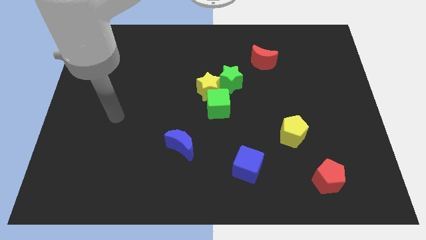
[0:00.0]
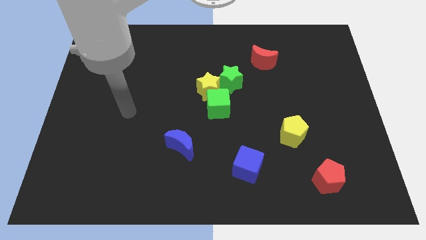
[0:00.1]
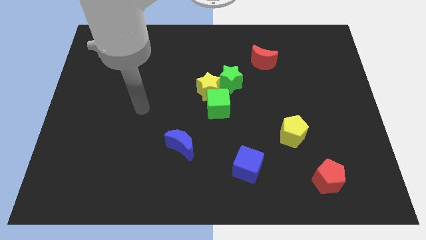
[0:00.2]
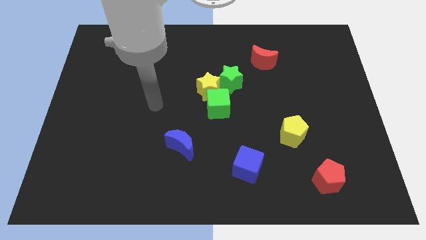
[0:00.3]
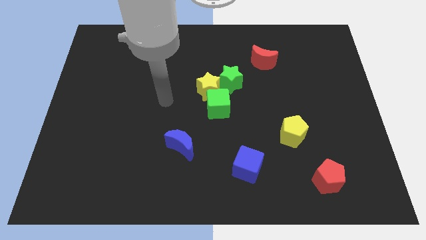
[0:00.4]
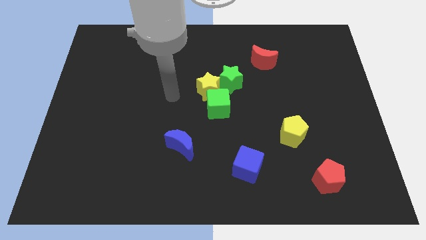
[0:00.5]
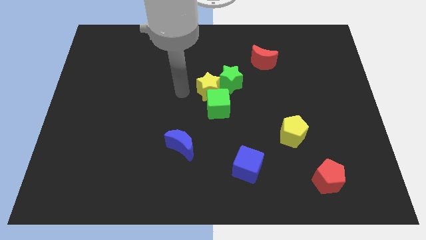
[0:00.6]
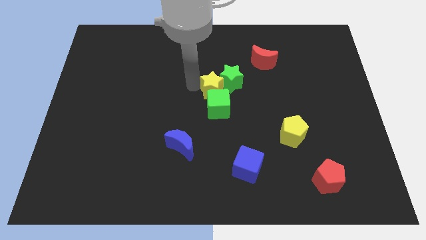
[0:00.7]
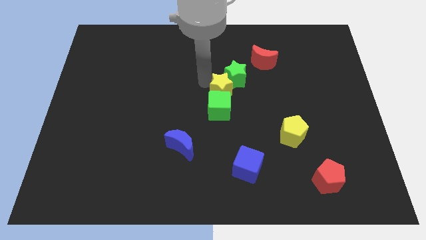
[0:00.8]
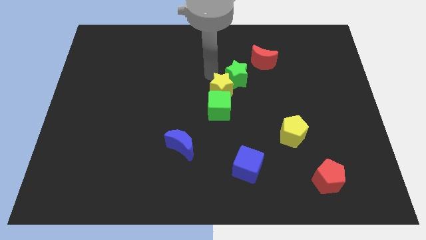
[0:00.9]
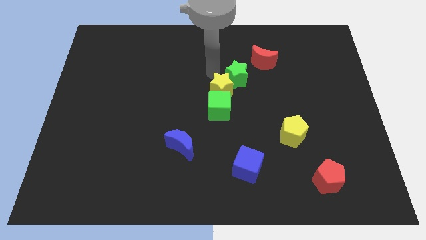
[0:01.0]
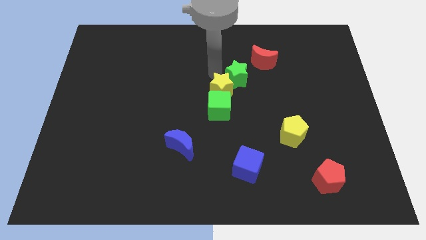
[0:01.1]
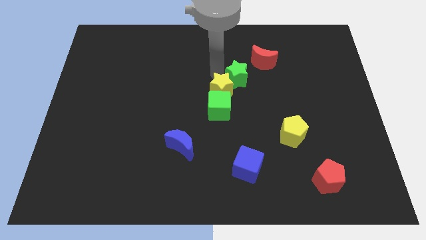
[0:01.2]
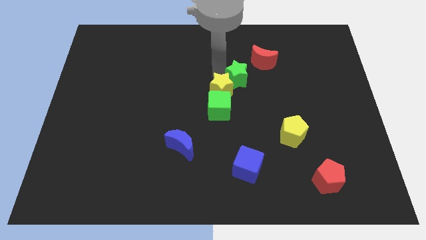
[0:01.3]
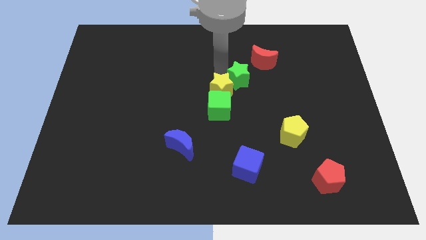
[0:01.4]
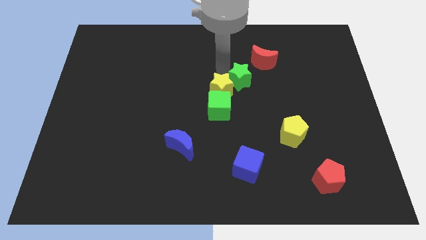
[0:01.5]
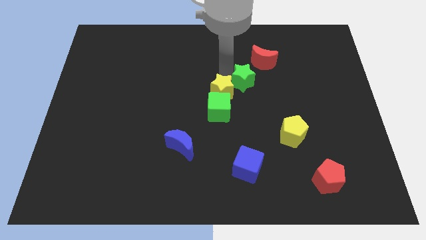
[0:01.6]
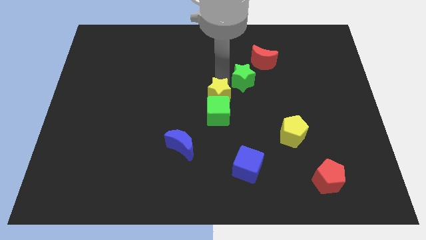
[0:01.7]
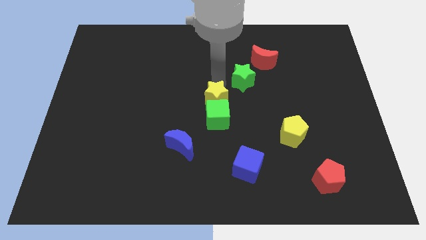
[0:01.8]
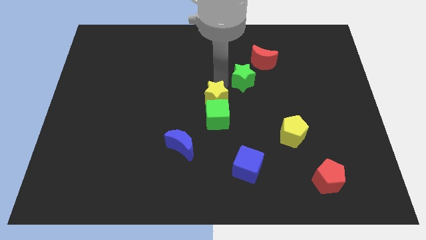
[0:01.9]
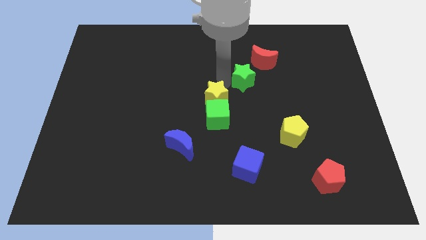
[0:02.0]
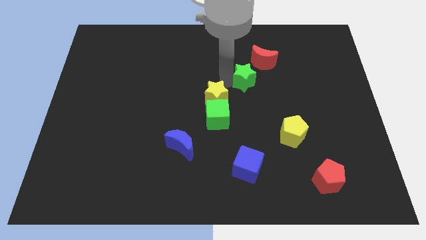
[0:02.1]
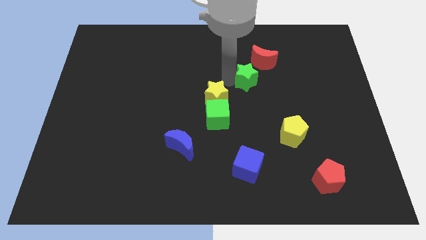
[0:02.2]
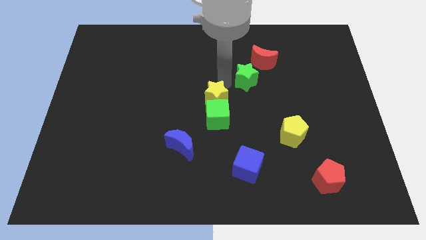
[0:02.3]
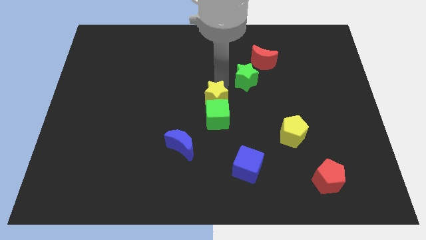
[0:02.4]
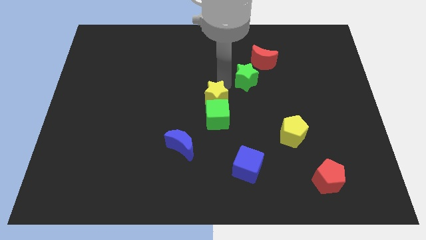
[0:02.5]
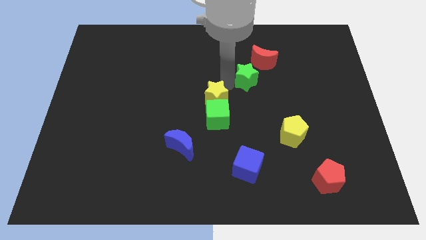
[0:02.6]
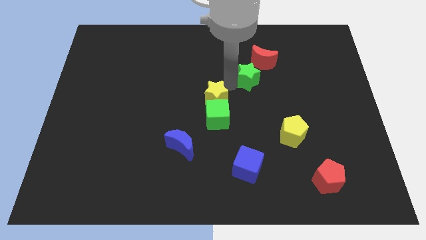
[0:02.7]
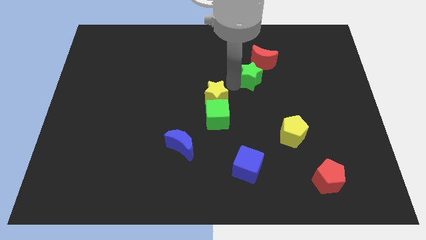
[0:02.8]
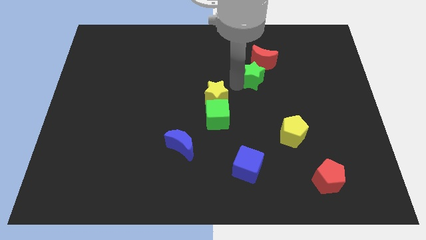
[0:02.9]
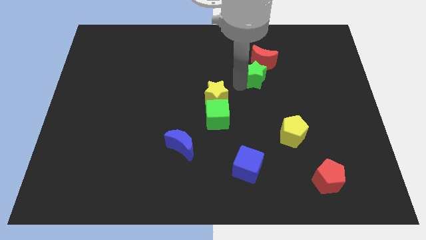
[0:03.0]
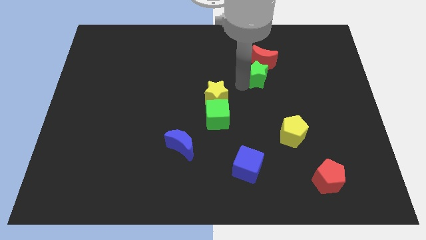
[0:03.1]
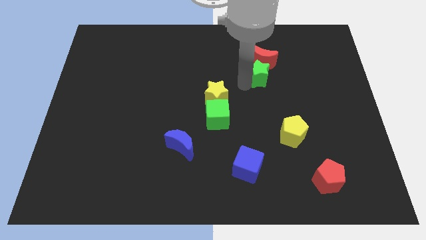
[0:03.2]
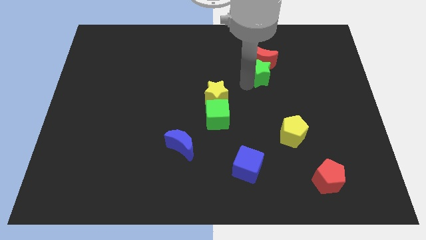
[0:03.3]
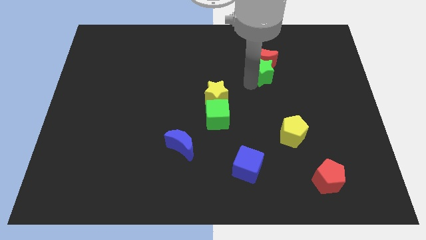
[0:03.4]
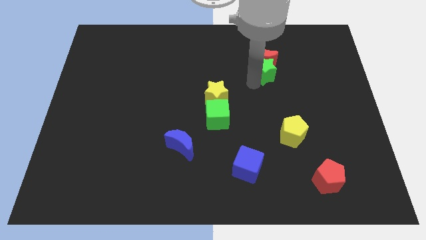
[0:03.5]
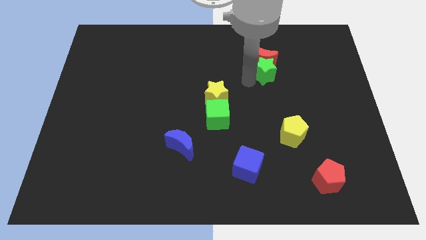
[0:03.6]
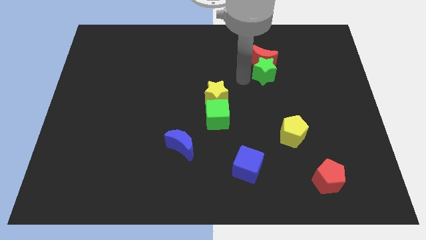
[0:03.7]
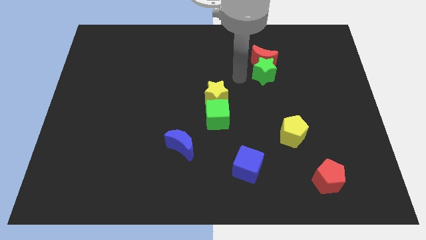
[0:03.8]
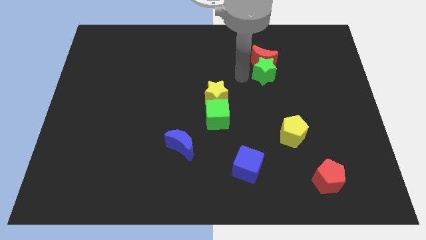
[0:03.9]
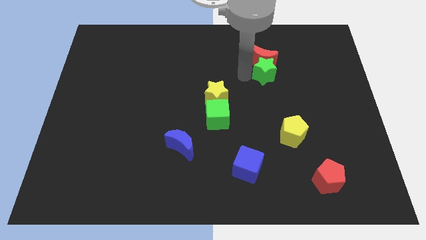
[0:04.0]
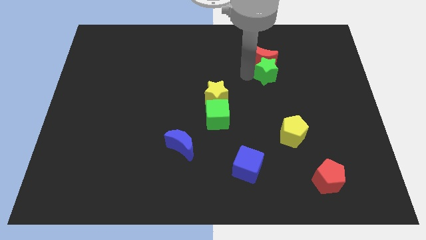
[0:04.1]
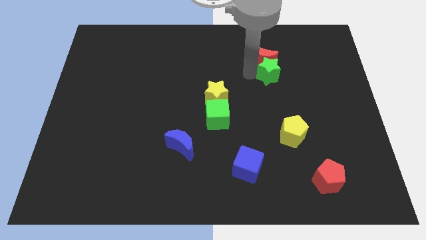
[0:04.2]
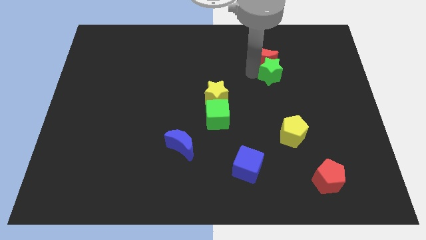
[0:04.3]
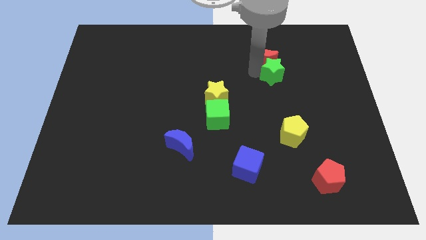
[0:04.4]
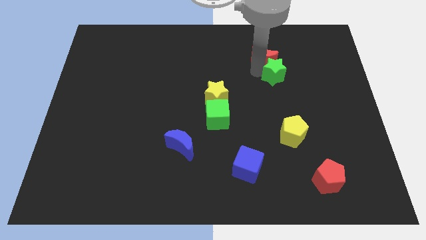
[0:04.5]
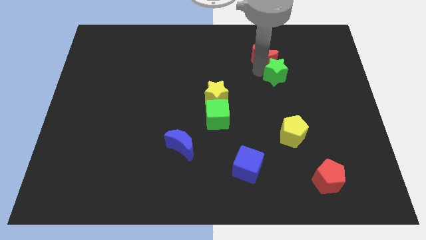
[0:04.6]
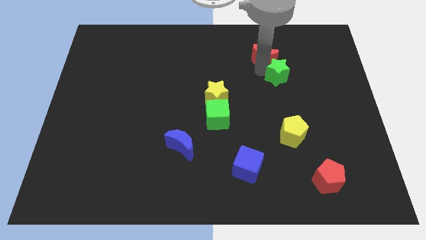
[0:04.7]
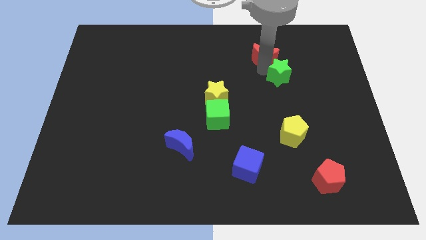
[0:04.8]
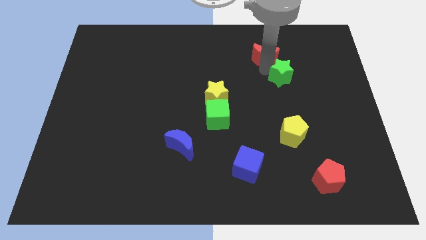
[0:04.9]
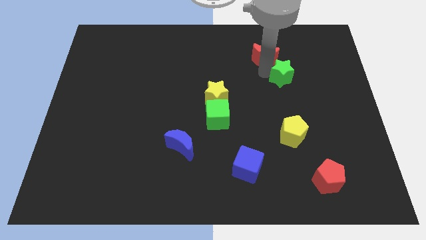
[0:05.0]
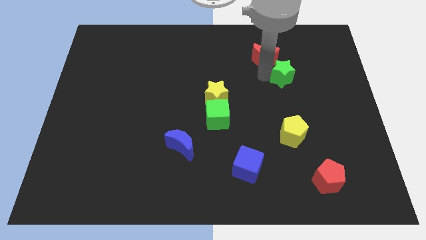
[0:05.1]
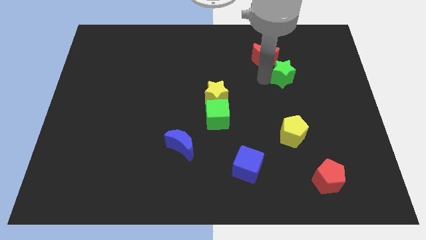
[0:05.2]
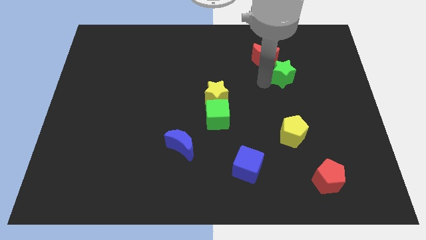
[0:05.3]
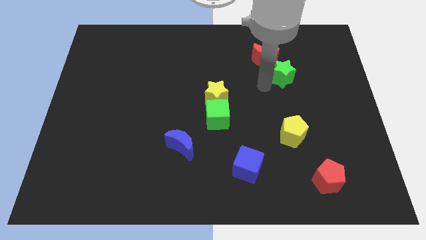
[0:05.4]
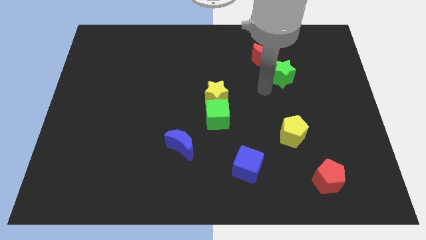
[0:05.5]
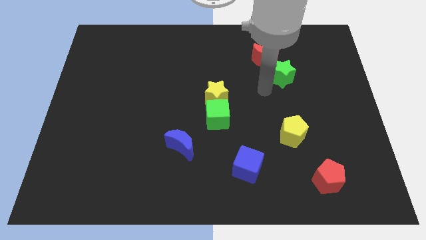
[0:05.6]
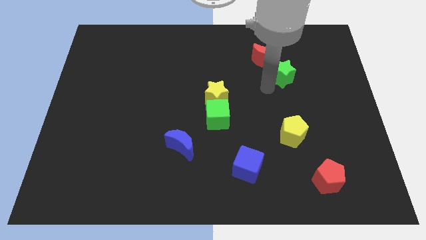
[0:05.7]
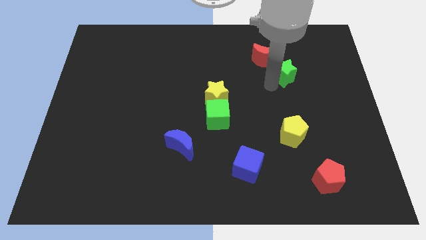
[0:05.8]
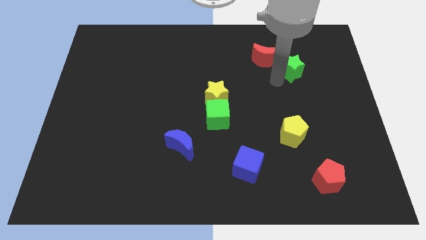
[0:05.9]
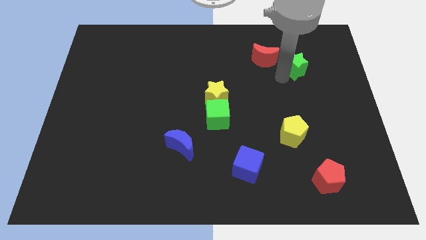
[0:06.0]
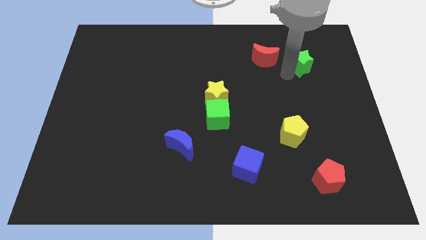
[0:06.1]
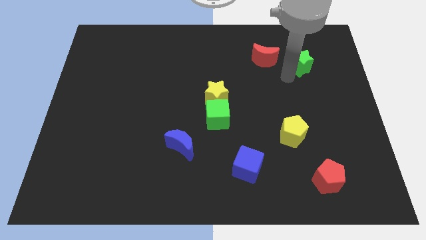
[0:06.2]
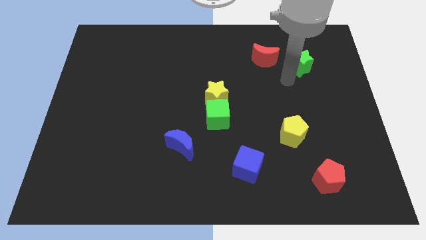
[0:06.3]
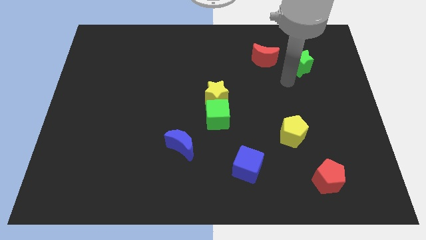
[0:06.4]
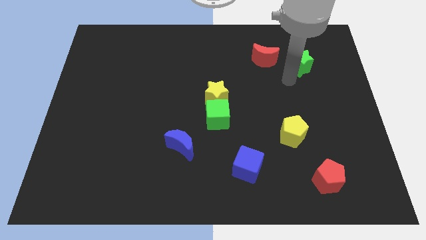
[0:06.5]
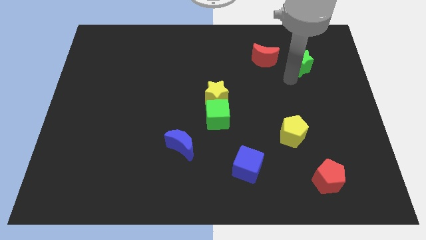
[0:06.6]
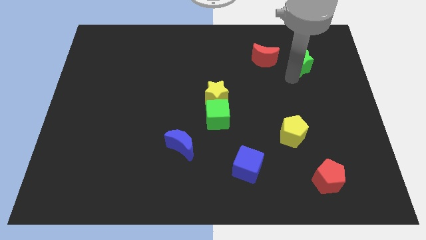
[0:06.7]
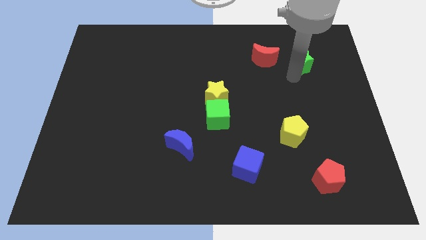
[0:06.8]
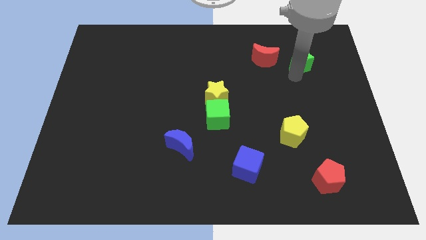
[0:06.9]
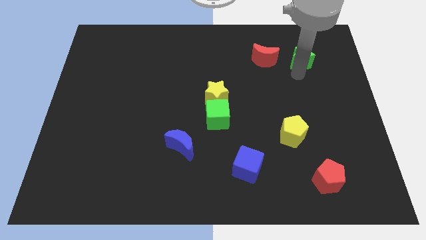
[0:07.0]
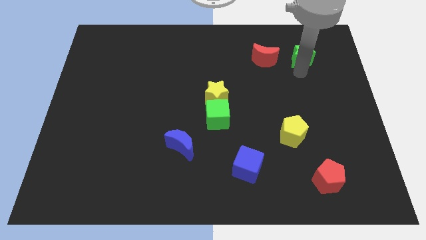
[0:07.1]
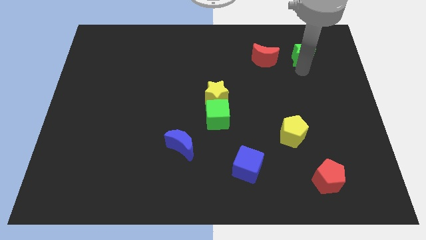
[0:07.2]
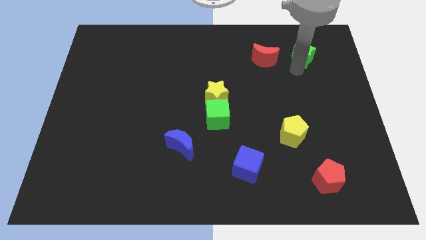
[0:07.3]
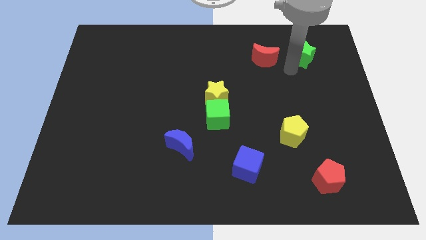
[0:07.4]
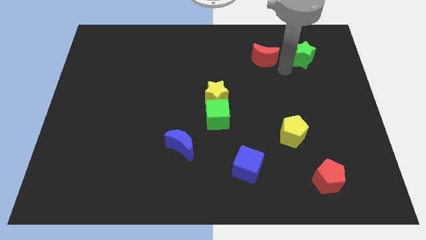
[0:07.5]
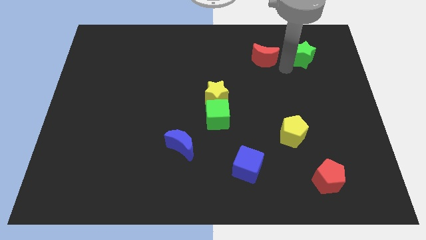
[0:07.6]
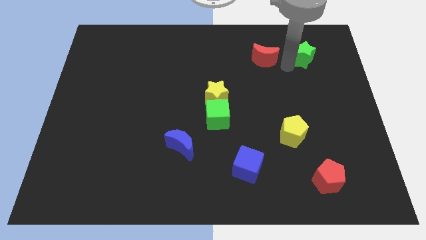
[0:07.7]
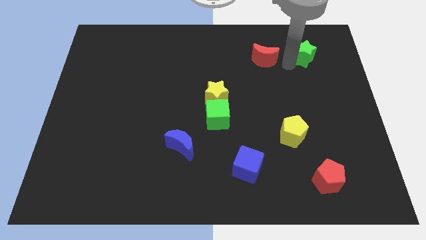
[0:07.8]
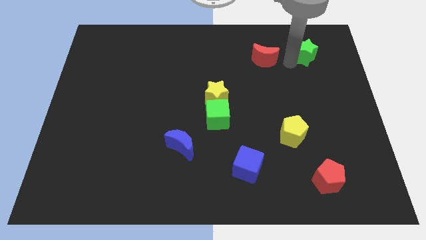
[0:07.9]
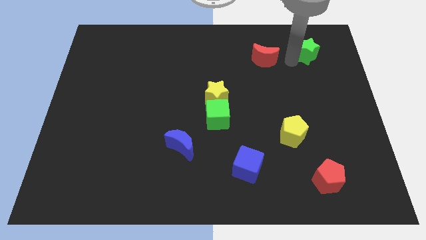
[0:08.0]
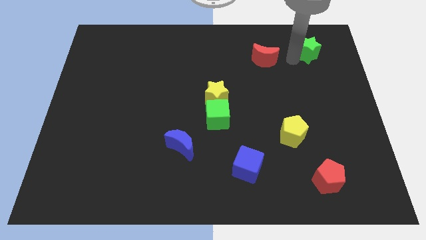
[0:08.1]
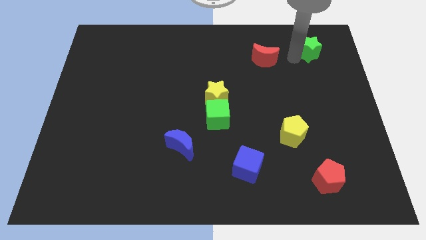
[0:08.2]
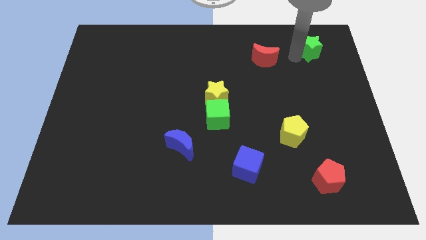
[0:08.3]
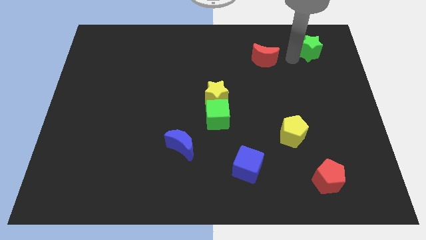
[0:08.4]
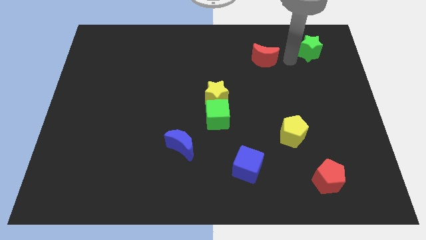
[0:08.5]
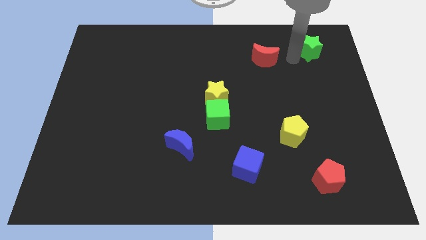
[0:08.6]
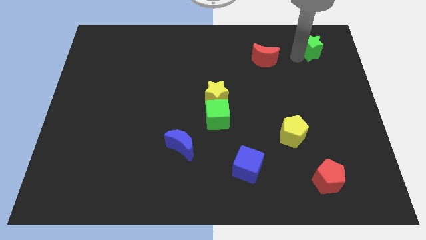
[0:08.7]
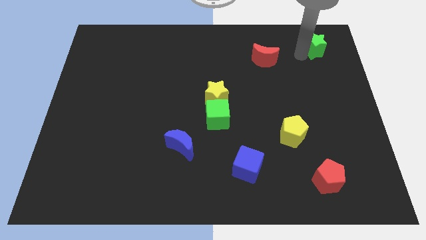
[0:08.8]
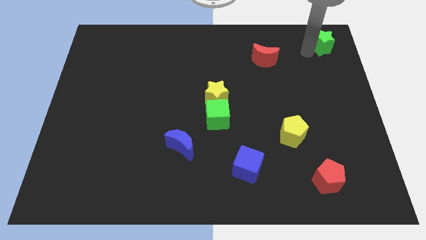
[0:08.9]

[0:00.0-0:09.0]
push the green star to the top right of the board
